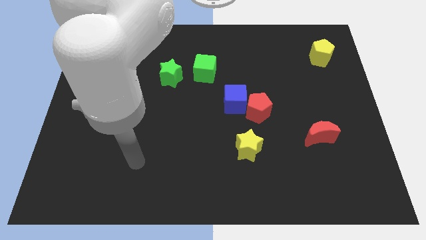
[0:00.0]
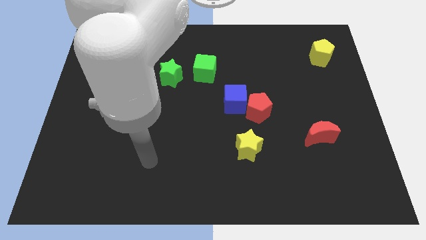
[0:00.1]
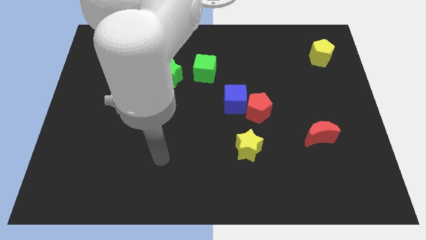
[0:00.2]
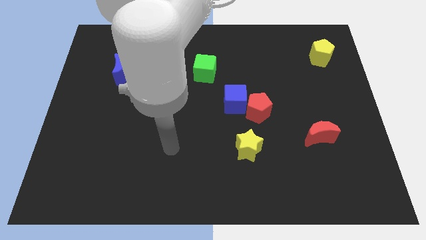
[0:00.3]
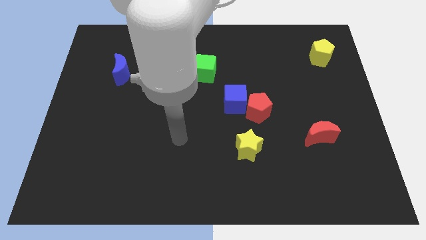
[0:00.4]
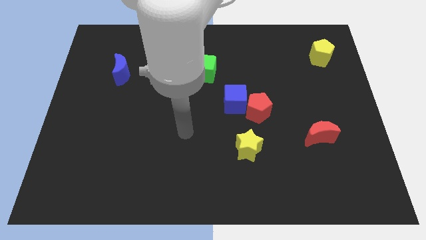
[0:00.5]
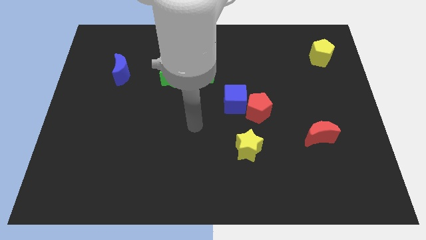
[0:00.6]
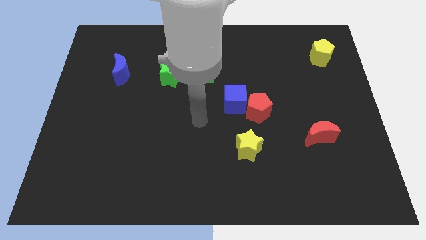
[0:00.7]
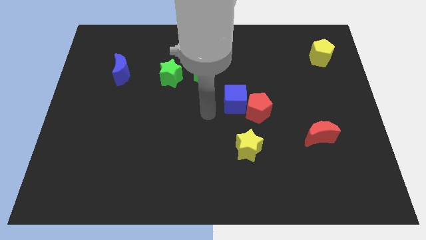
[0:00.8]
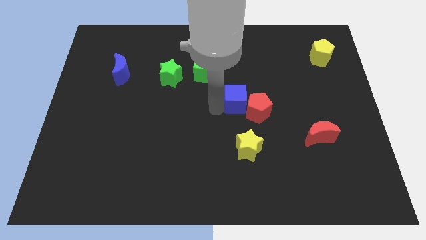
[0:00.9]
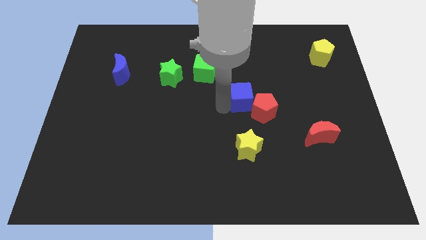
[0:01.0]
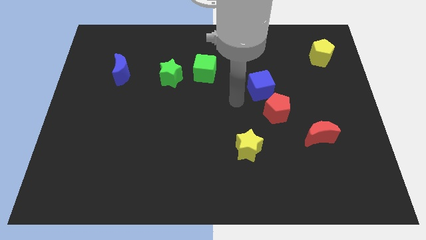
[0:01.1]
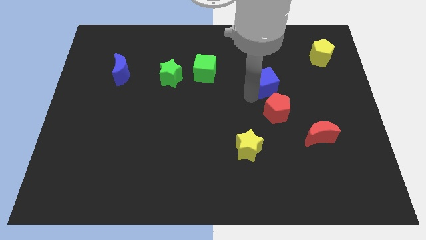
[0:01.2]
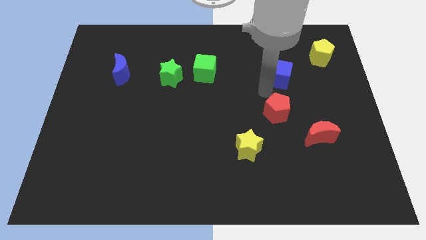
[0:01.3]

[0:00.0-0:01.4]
separate the red pentagon from the blue cube

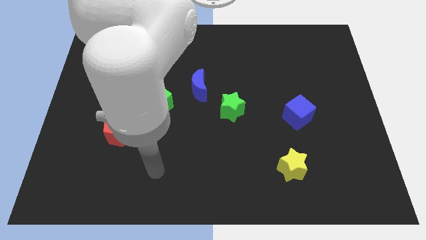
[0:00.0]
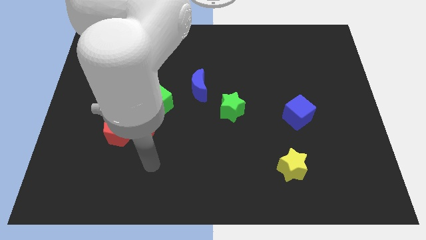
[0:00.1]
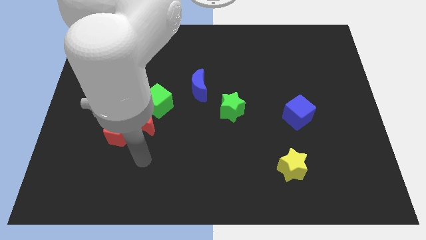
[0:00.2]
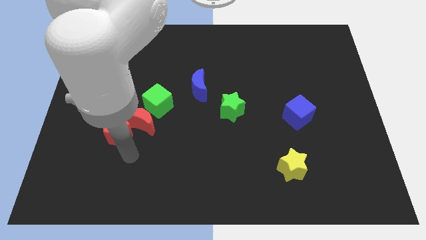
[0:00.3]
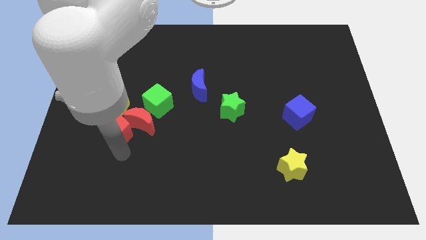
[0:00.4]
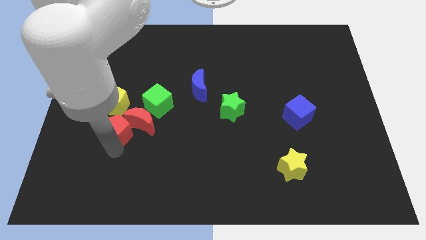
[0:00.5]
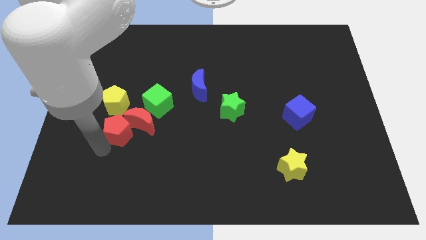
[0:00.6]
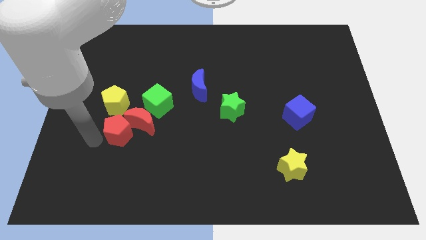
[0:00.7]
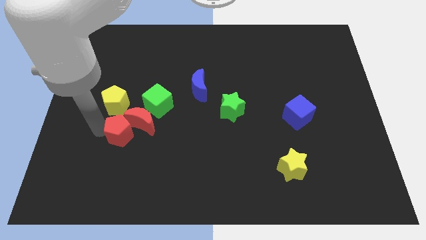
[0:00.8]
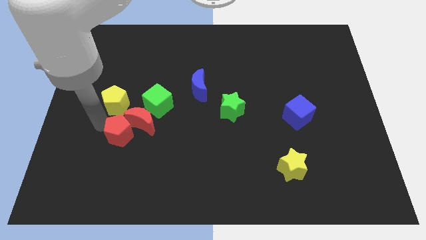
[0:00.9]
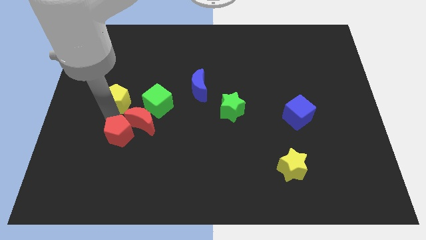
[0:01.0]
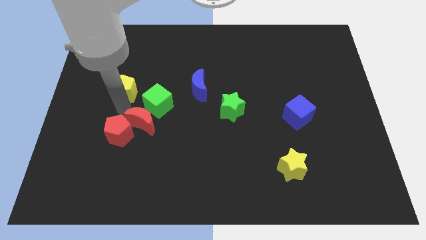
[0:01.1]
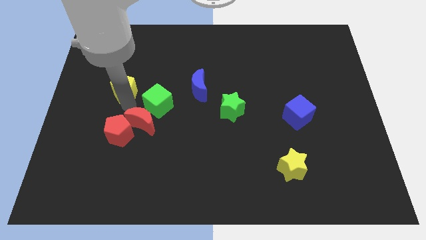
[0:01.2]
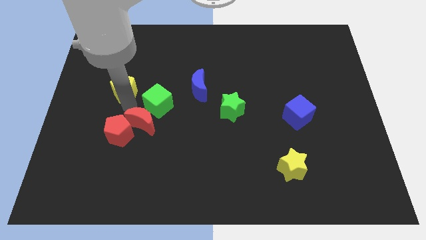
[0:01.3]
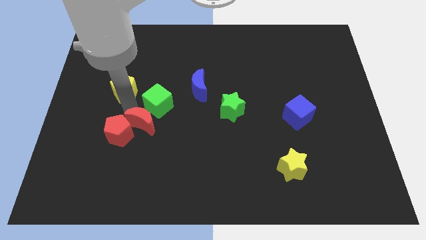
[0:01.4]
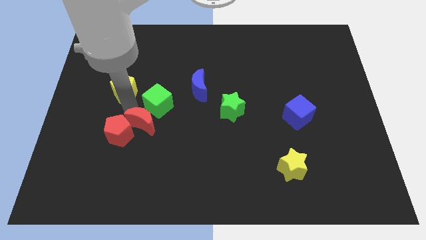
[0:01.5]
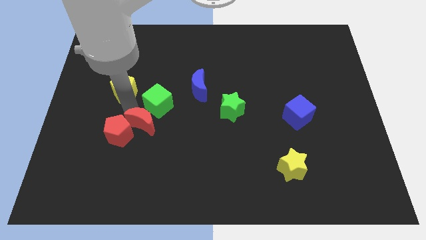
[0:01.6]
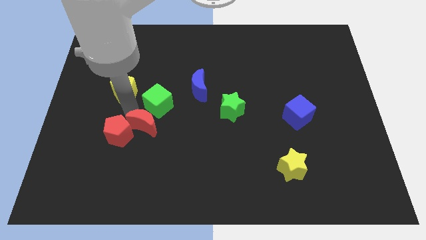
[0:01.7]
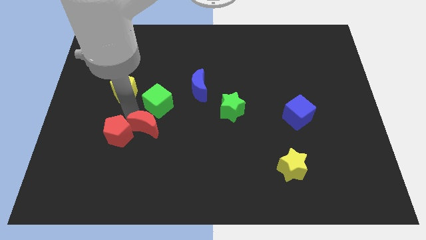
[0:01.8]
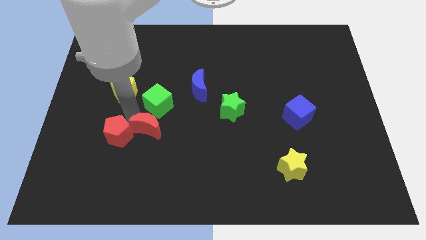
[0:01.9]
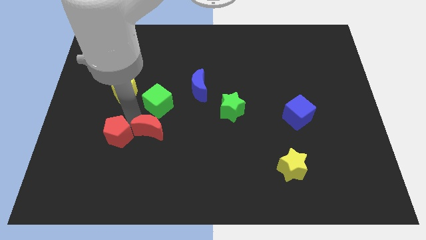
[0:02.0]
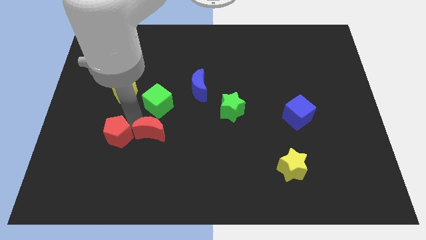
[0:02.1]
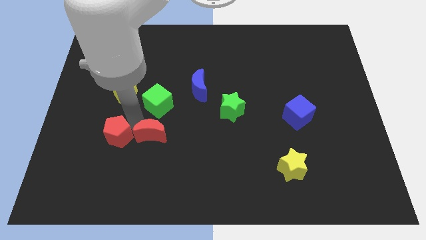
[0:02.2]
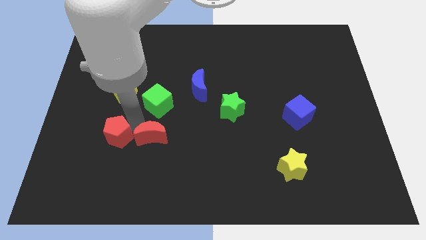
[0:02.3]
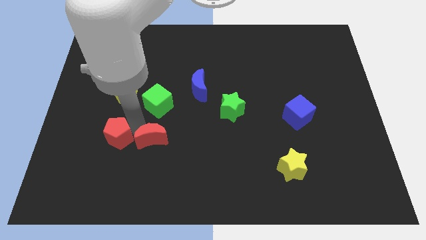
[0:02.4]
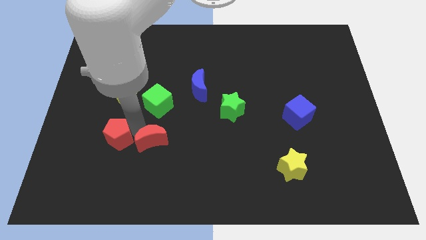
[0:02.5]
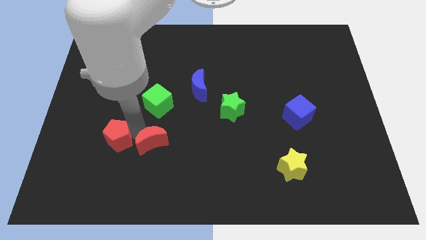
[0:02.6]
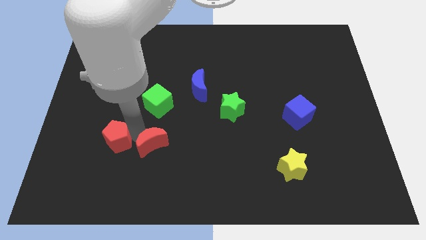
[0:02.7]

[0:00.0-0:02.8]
pull the red moon apart from the clump

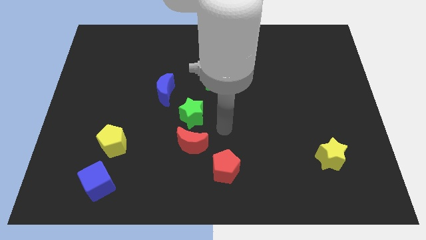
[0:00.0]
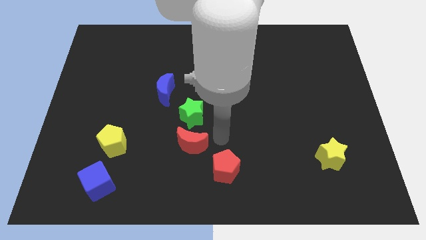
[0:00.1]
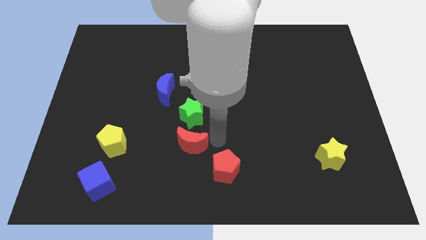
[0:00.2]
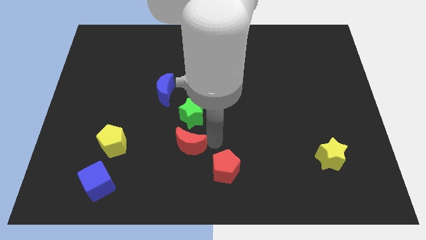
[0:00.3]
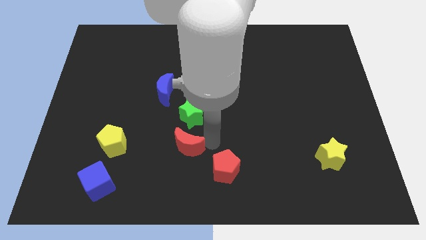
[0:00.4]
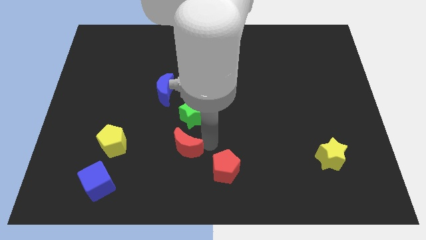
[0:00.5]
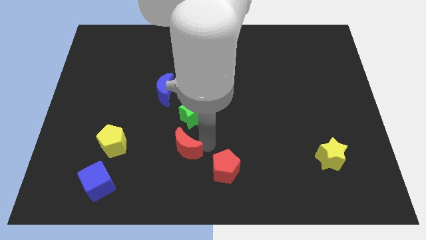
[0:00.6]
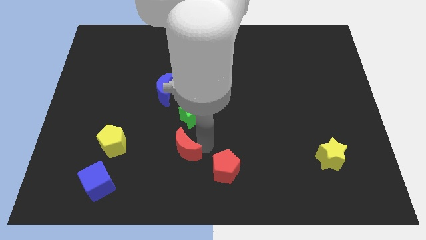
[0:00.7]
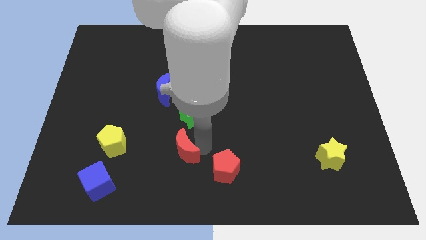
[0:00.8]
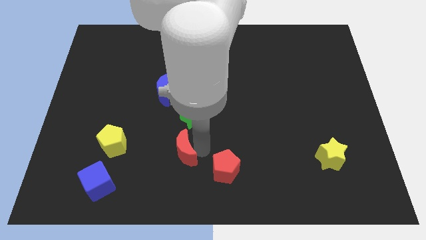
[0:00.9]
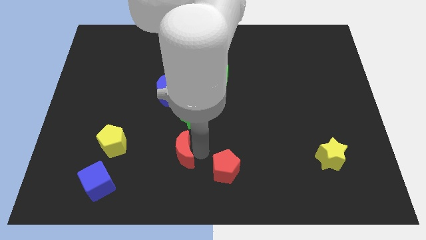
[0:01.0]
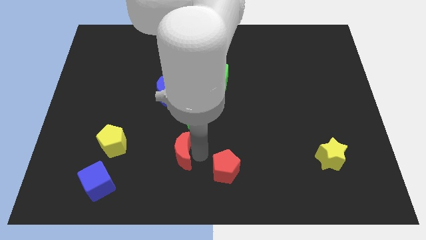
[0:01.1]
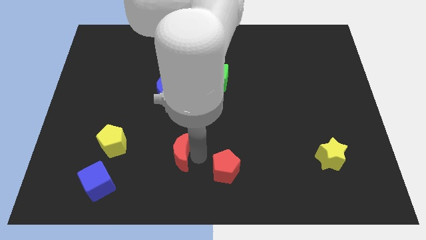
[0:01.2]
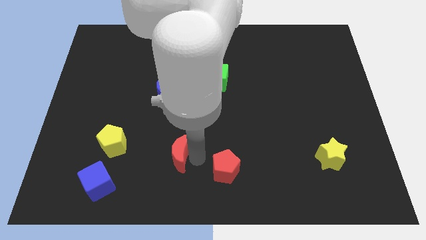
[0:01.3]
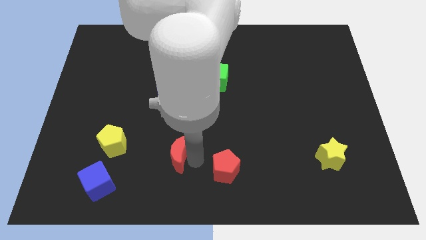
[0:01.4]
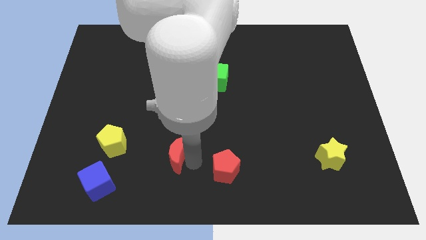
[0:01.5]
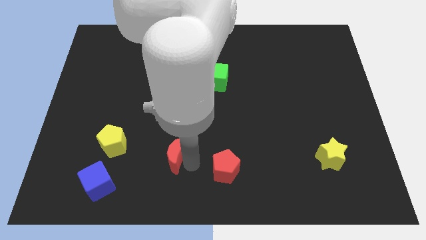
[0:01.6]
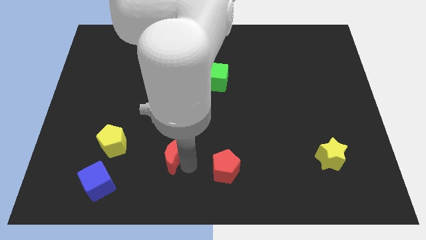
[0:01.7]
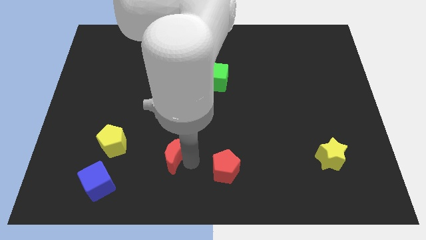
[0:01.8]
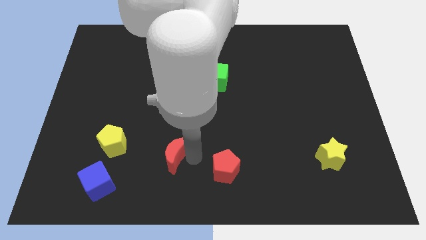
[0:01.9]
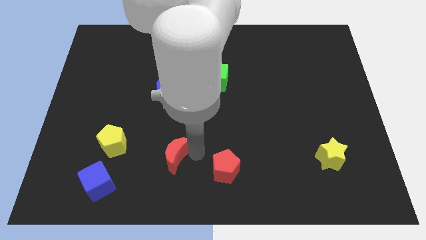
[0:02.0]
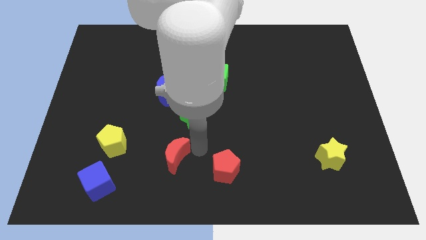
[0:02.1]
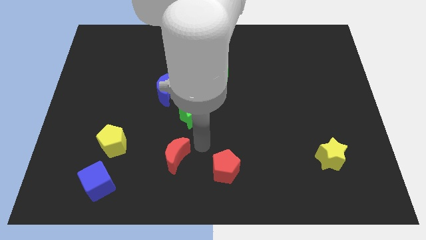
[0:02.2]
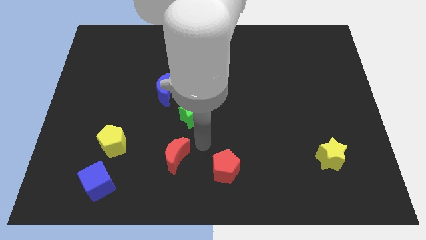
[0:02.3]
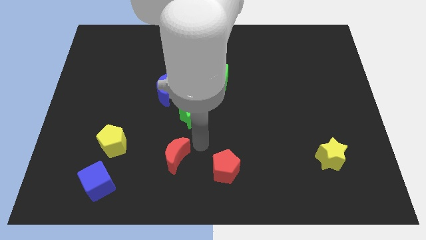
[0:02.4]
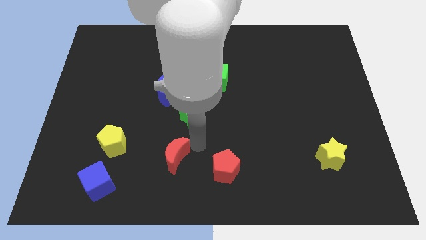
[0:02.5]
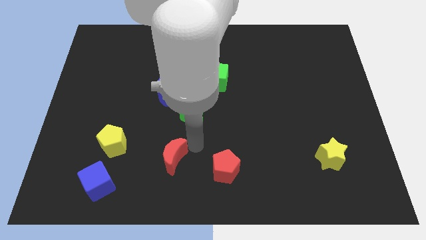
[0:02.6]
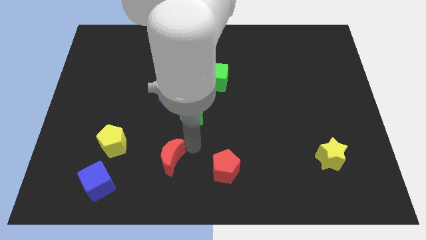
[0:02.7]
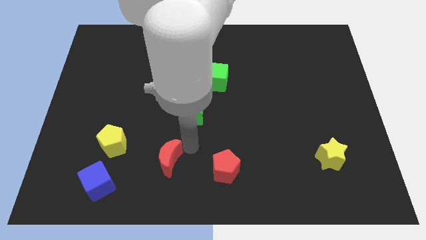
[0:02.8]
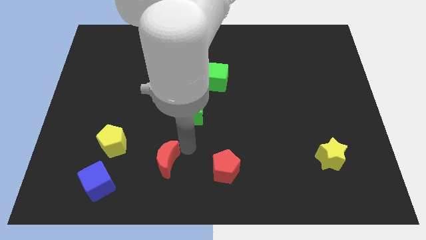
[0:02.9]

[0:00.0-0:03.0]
pull the red moon apart from the green star and red pentagon

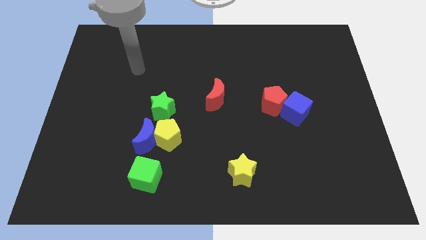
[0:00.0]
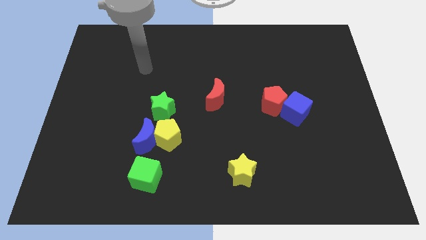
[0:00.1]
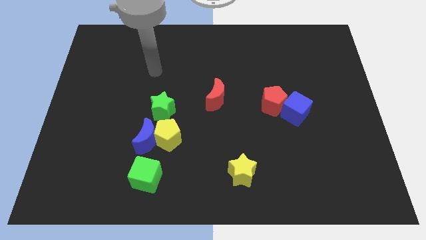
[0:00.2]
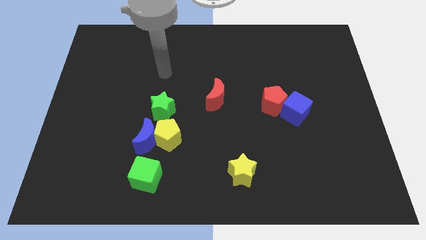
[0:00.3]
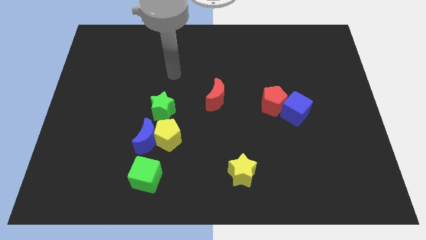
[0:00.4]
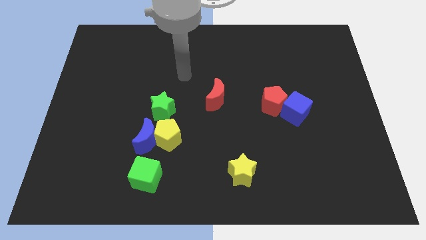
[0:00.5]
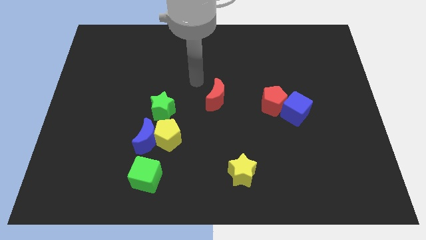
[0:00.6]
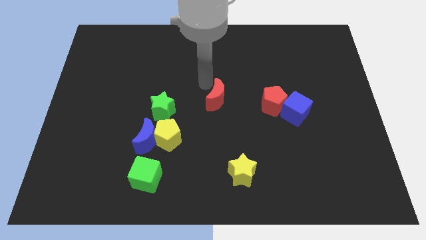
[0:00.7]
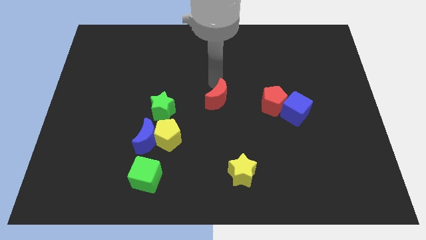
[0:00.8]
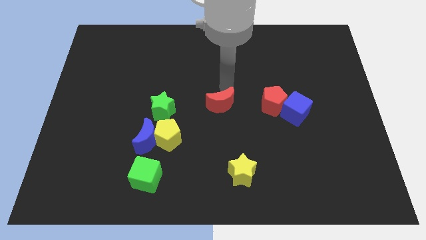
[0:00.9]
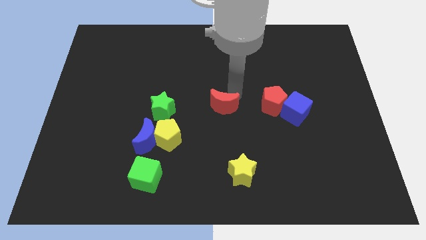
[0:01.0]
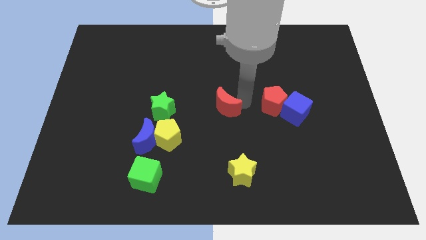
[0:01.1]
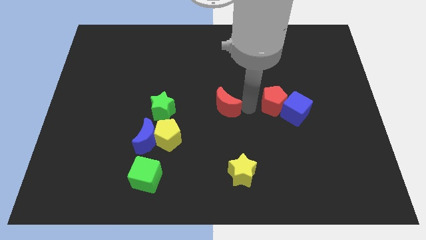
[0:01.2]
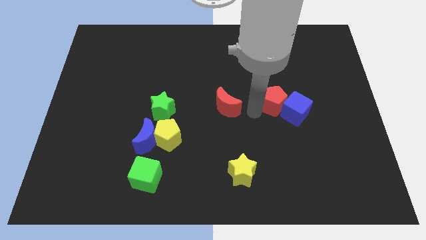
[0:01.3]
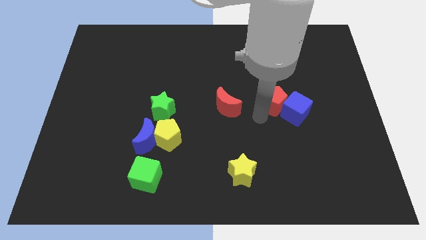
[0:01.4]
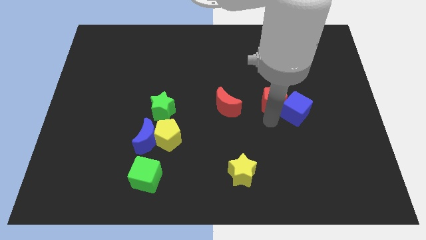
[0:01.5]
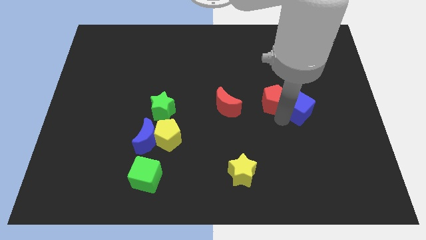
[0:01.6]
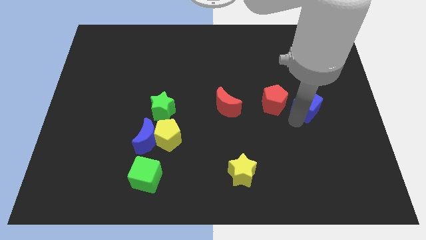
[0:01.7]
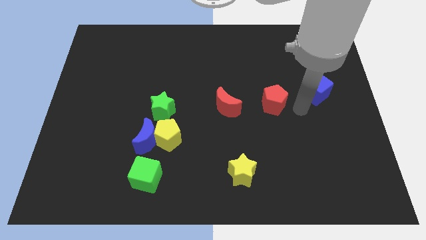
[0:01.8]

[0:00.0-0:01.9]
move the red pentagon away from the blue cube
